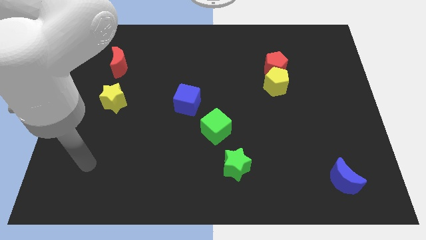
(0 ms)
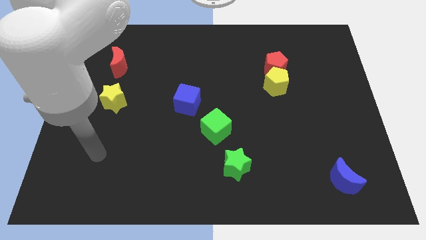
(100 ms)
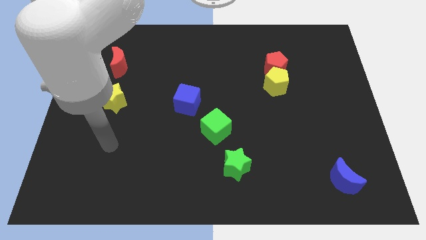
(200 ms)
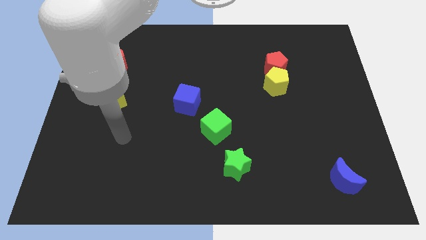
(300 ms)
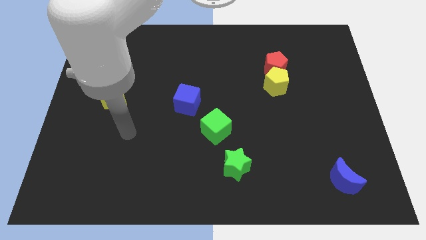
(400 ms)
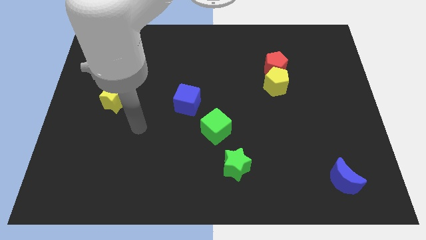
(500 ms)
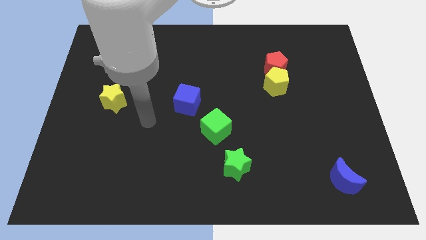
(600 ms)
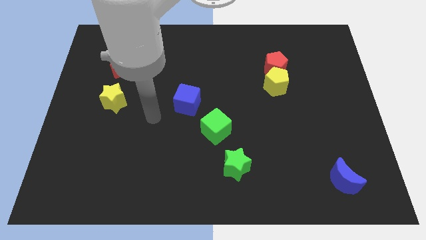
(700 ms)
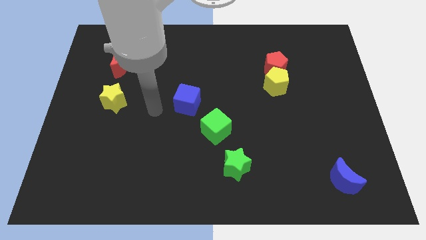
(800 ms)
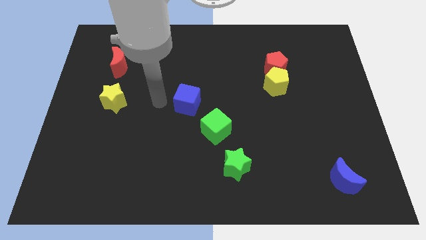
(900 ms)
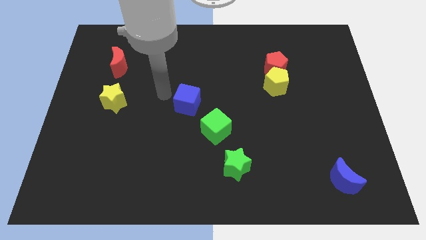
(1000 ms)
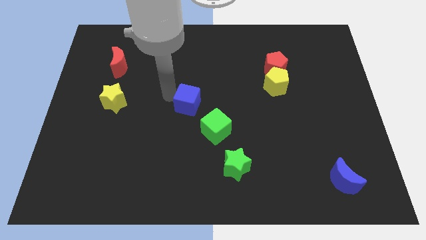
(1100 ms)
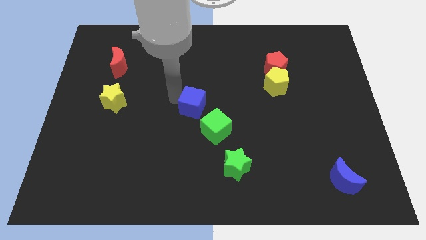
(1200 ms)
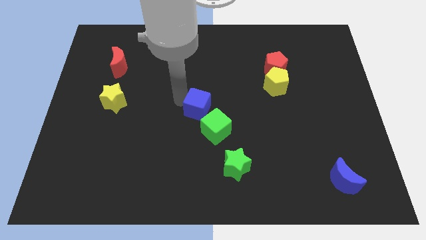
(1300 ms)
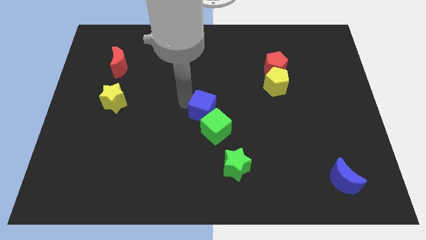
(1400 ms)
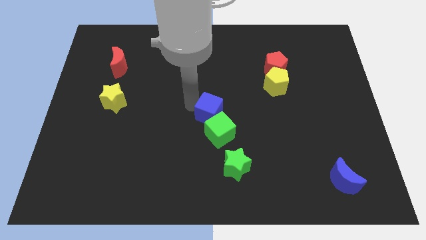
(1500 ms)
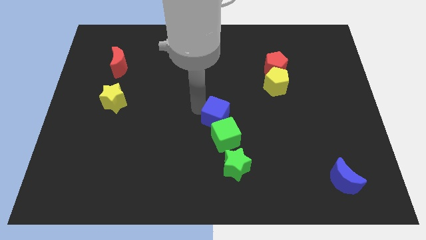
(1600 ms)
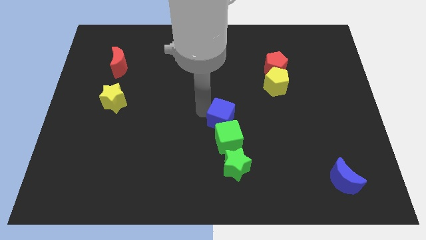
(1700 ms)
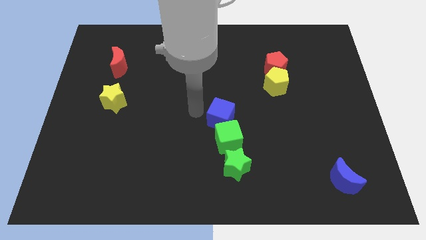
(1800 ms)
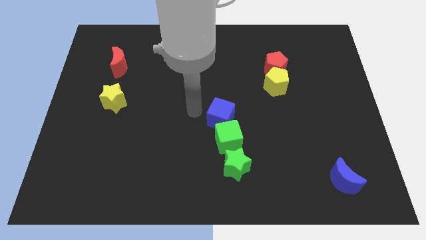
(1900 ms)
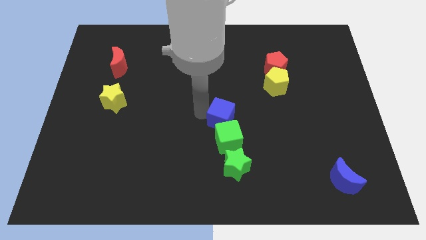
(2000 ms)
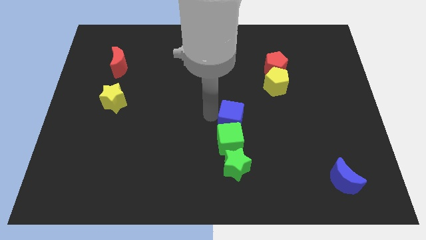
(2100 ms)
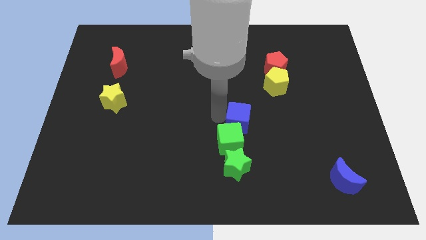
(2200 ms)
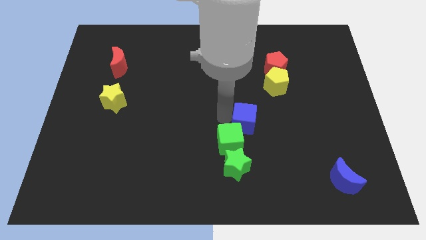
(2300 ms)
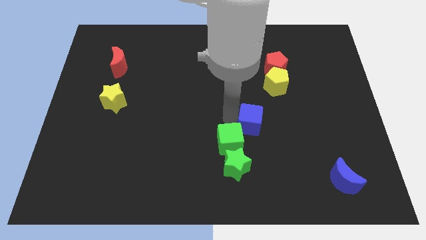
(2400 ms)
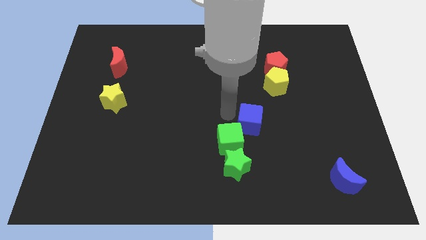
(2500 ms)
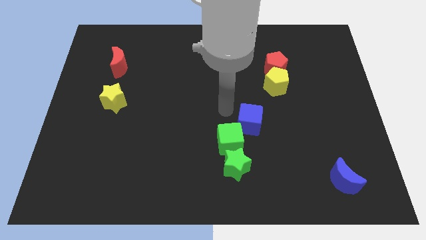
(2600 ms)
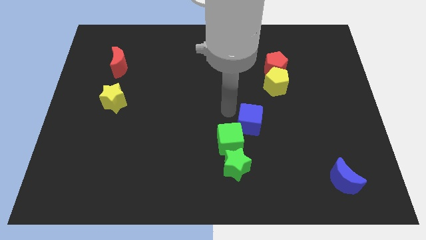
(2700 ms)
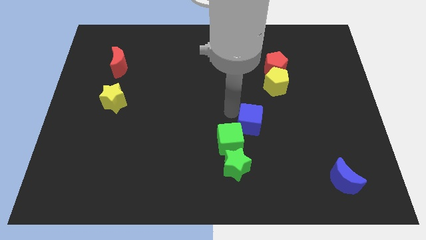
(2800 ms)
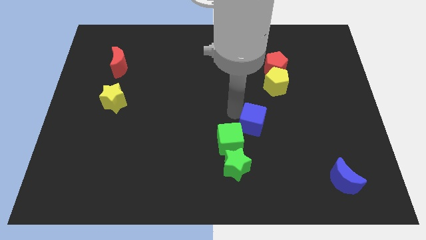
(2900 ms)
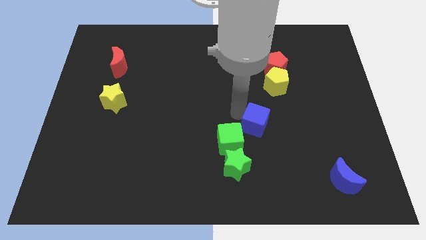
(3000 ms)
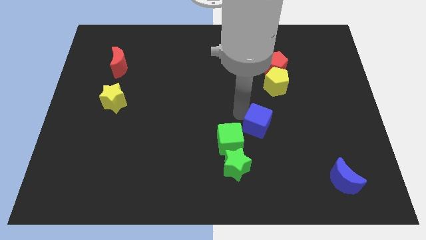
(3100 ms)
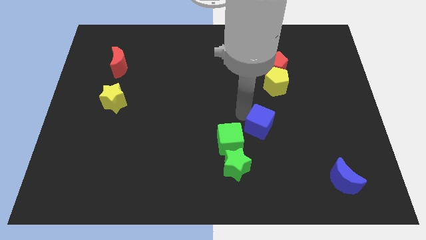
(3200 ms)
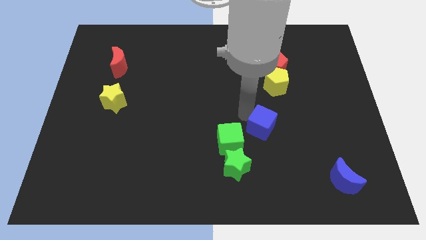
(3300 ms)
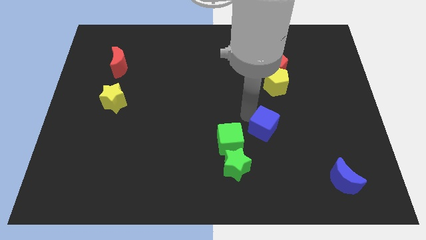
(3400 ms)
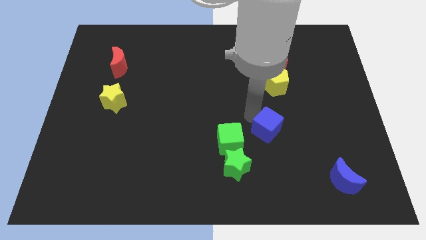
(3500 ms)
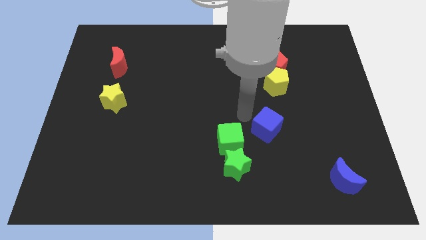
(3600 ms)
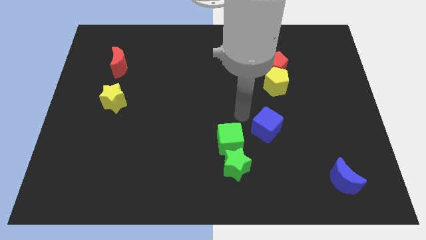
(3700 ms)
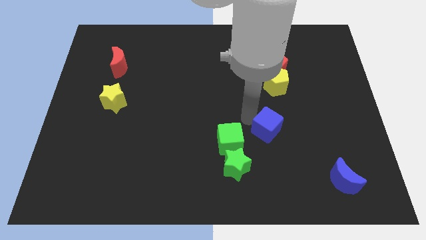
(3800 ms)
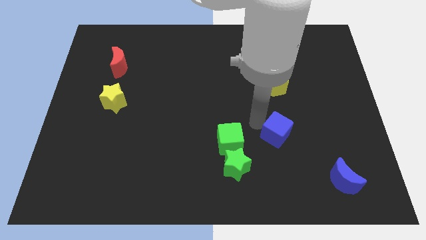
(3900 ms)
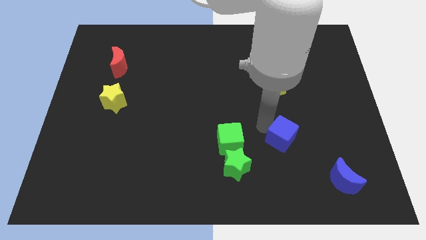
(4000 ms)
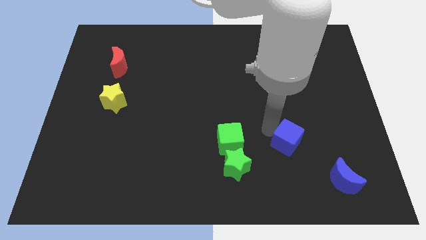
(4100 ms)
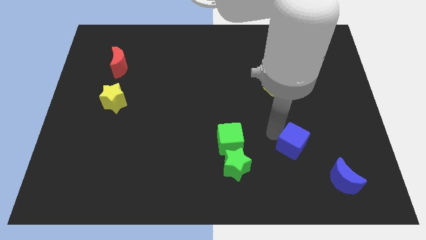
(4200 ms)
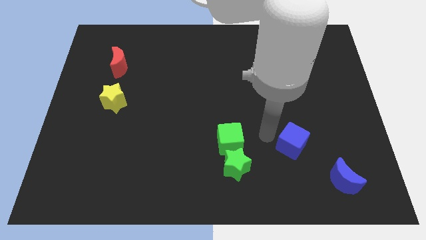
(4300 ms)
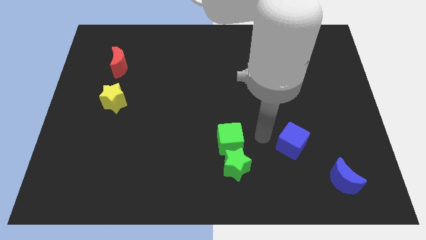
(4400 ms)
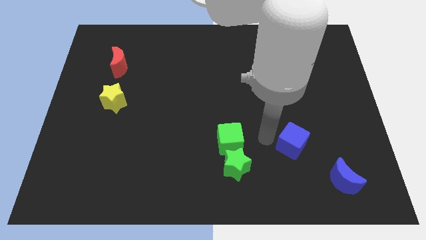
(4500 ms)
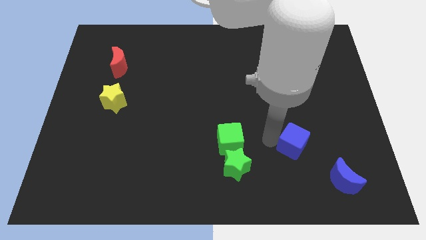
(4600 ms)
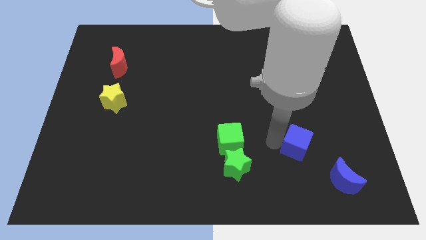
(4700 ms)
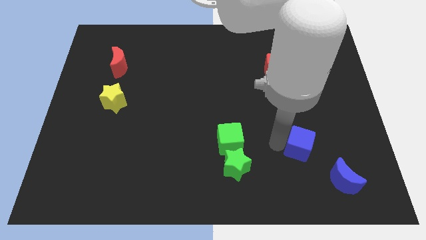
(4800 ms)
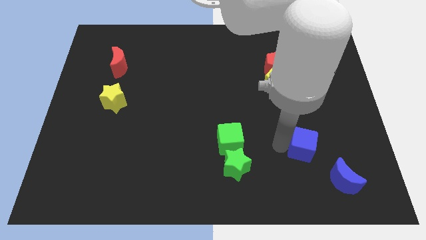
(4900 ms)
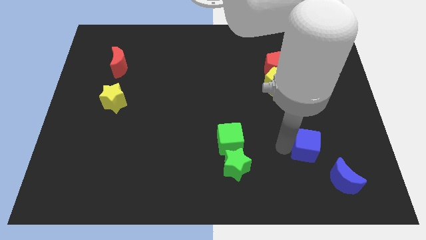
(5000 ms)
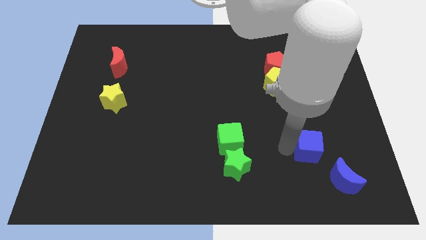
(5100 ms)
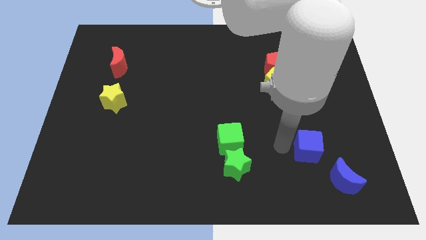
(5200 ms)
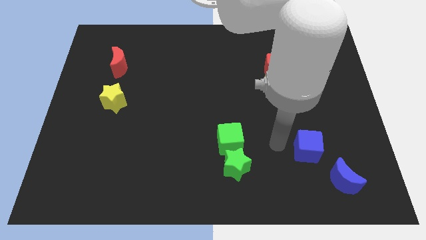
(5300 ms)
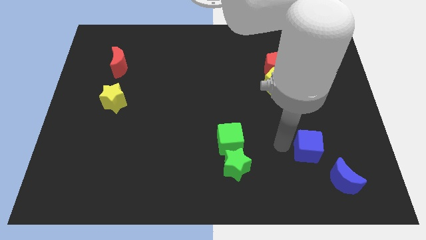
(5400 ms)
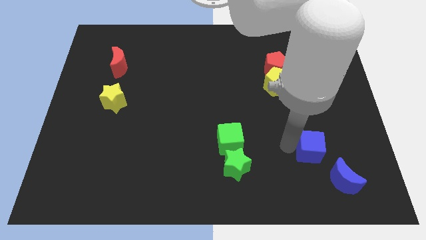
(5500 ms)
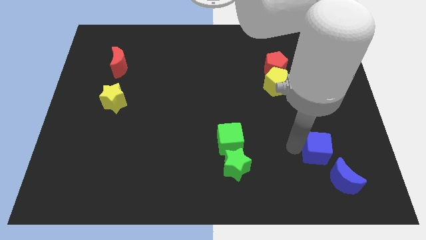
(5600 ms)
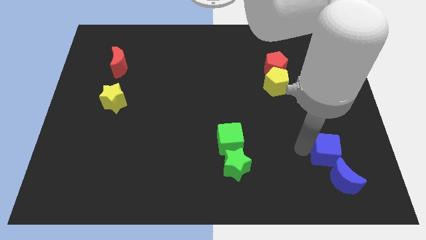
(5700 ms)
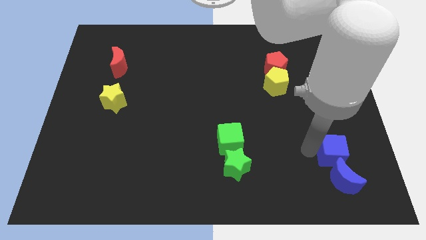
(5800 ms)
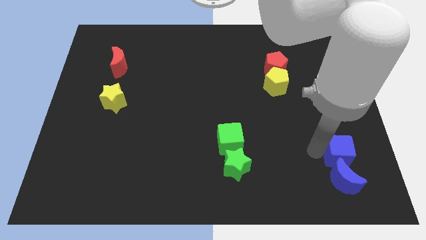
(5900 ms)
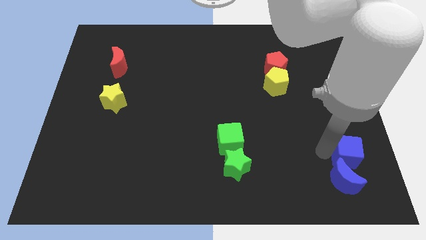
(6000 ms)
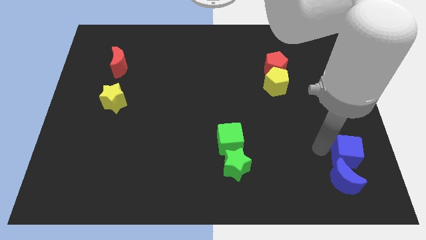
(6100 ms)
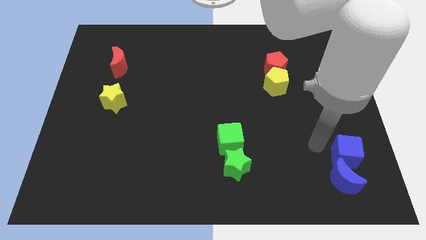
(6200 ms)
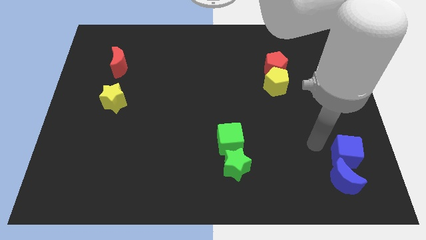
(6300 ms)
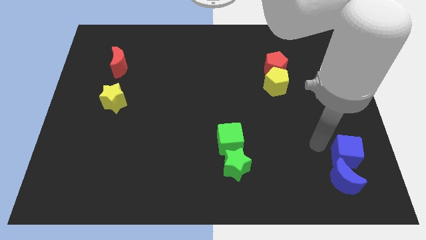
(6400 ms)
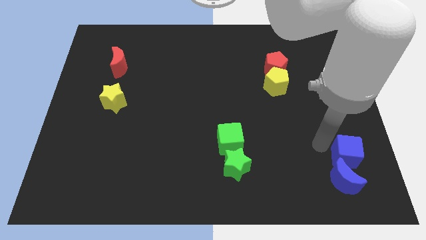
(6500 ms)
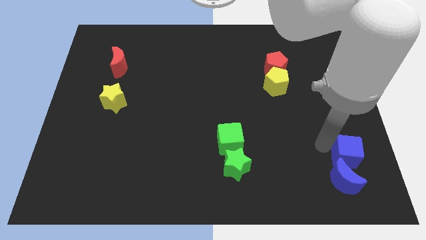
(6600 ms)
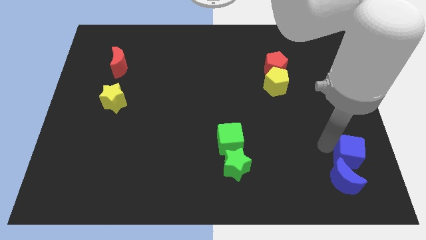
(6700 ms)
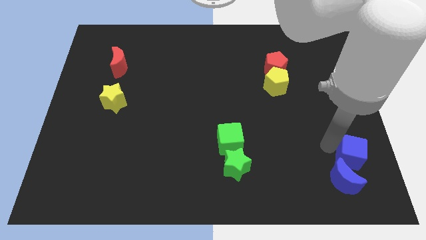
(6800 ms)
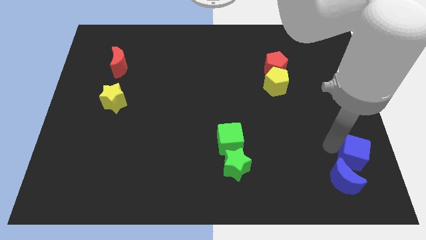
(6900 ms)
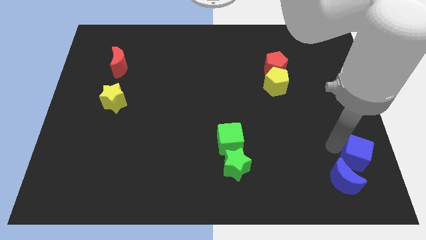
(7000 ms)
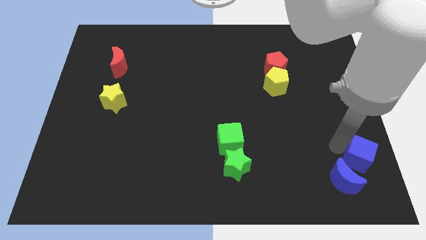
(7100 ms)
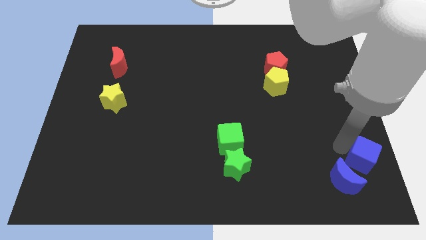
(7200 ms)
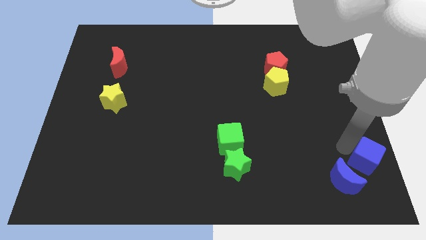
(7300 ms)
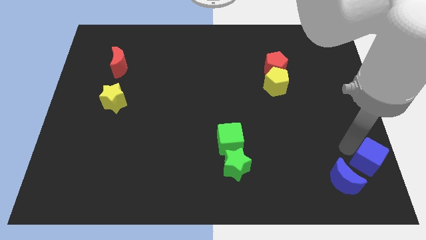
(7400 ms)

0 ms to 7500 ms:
push the blue cube to the lower right corner
